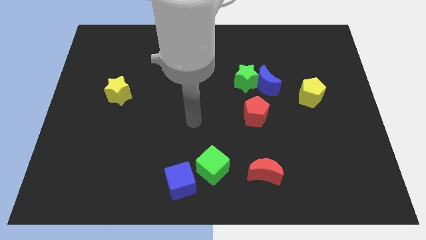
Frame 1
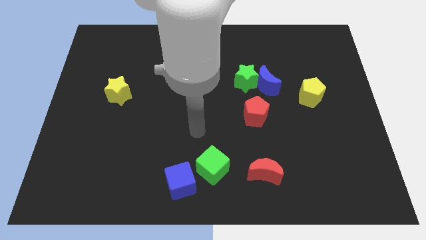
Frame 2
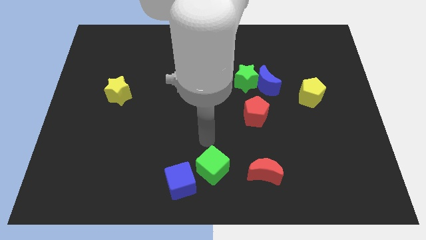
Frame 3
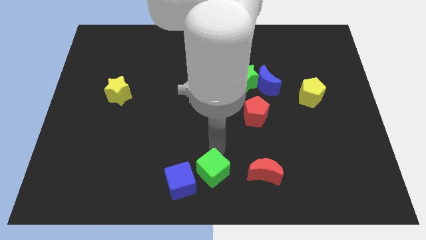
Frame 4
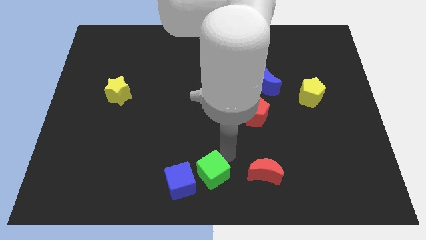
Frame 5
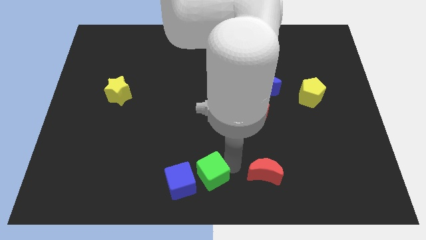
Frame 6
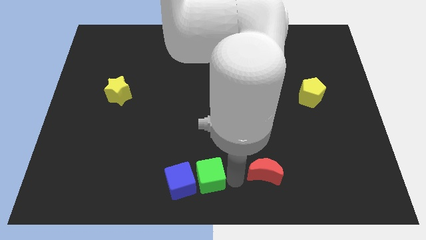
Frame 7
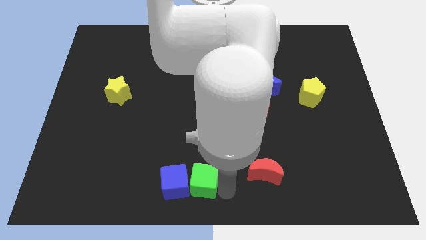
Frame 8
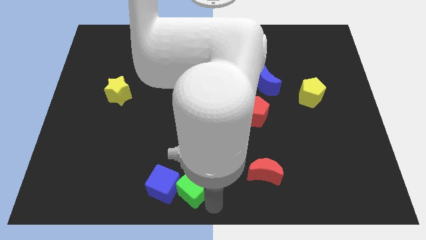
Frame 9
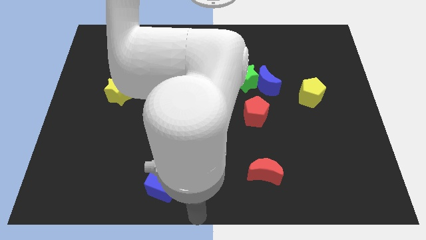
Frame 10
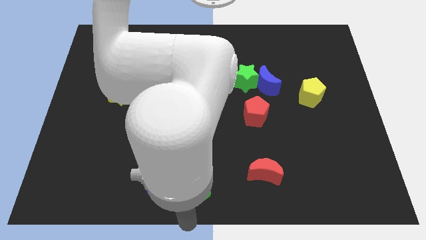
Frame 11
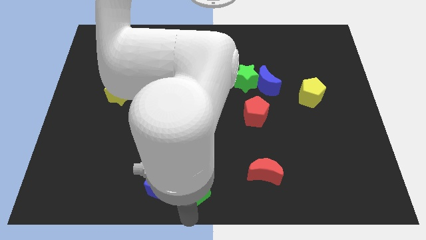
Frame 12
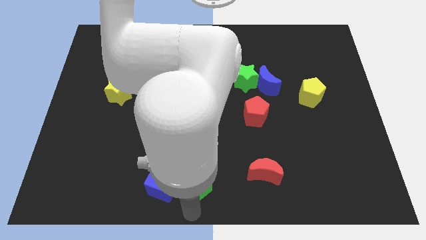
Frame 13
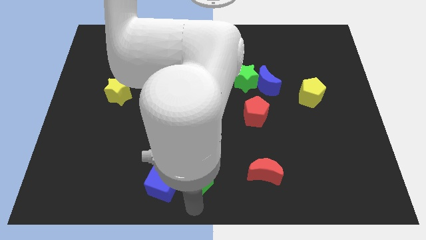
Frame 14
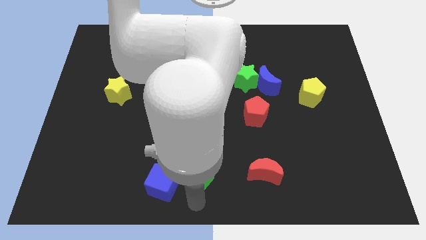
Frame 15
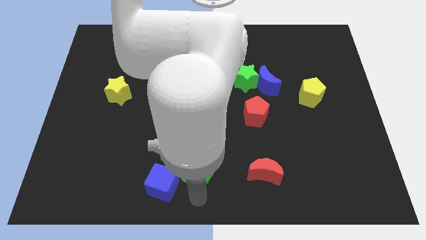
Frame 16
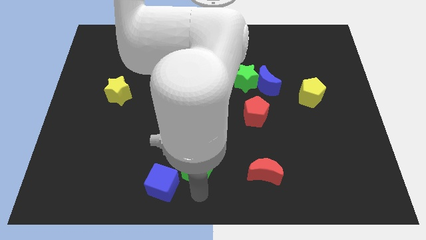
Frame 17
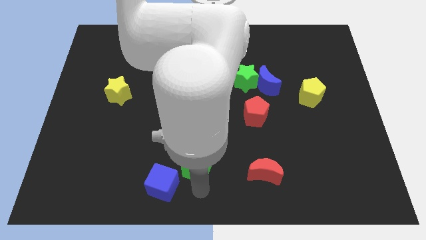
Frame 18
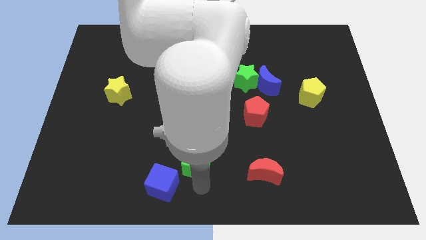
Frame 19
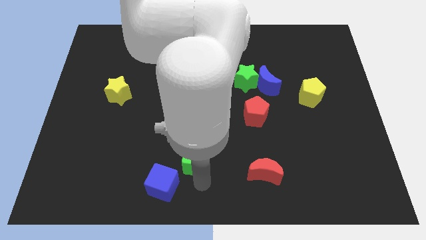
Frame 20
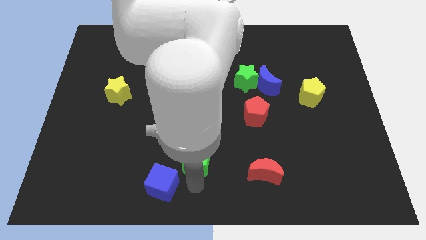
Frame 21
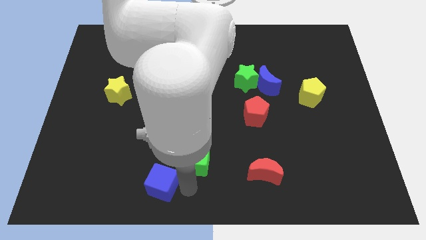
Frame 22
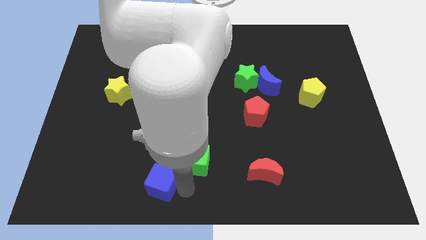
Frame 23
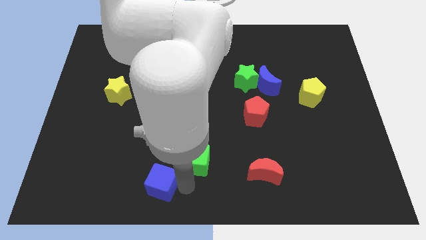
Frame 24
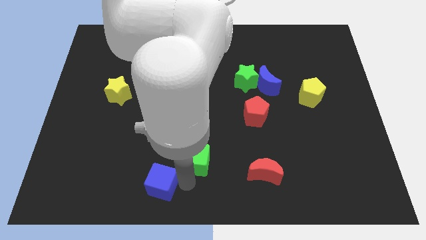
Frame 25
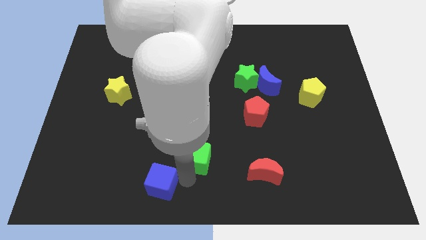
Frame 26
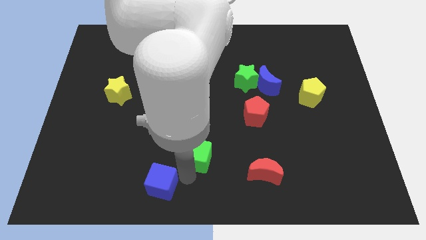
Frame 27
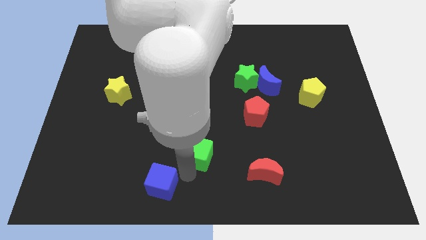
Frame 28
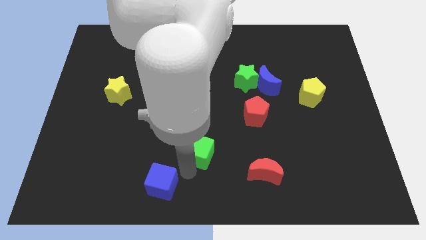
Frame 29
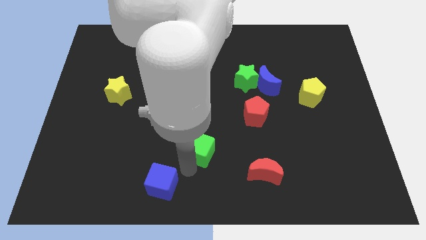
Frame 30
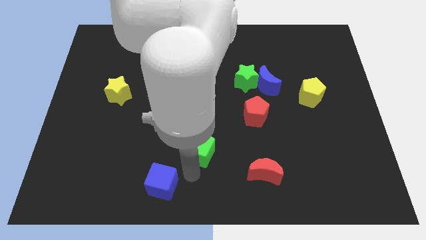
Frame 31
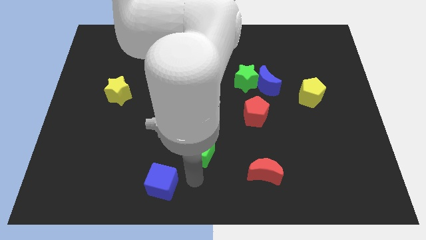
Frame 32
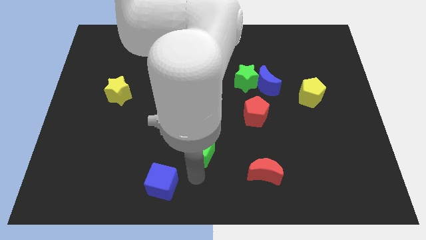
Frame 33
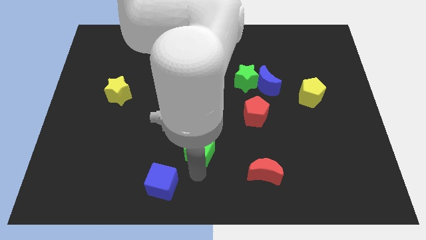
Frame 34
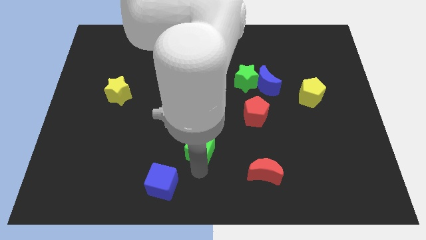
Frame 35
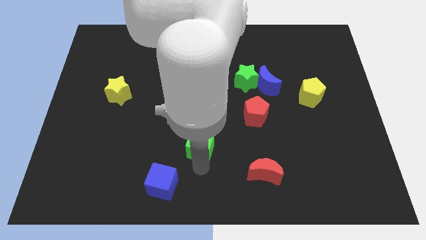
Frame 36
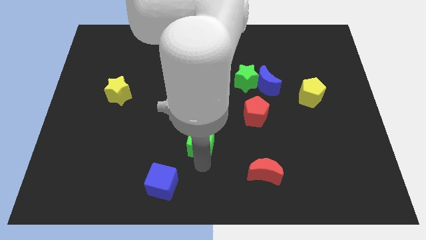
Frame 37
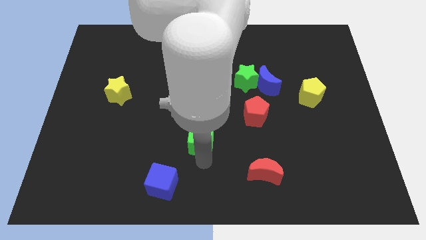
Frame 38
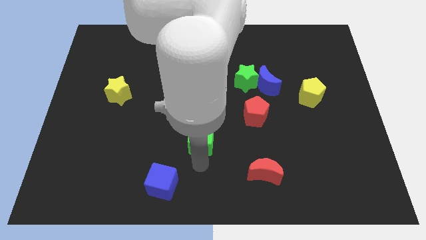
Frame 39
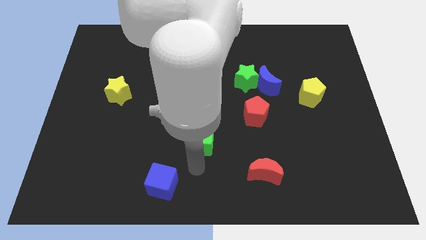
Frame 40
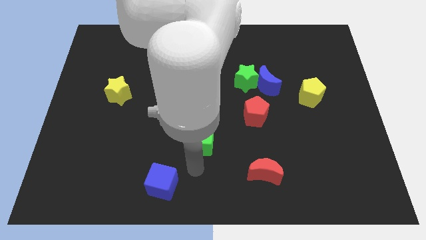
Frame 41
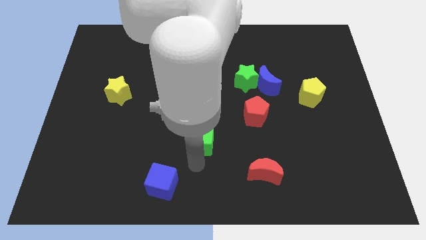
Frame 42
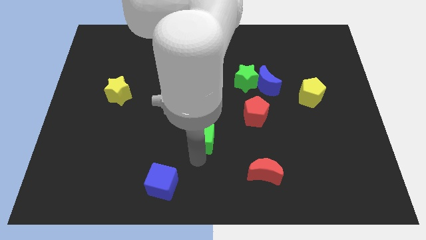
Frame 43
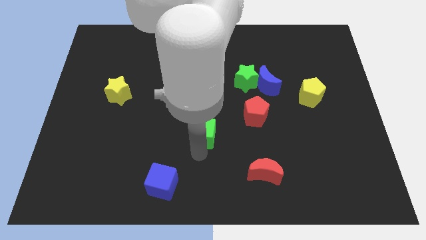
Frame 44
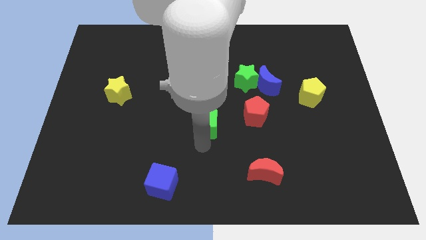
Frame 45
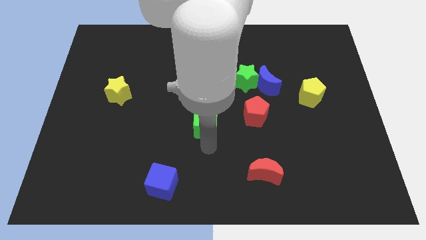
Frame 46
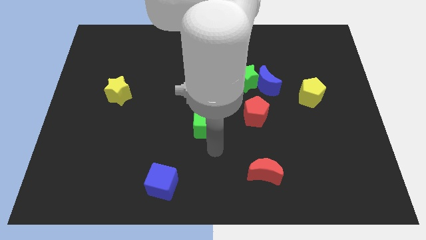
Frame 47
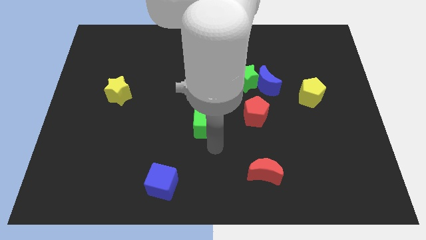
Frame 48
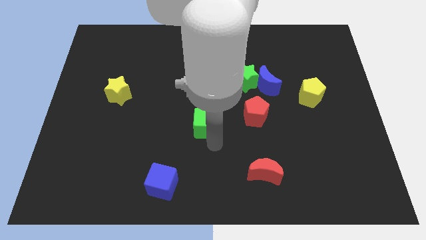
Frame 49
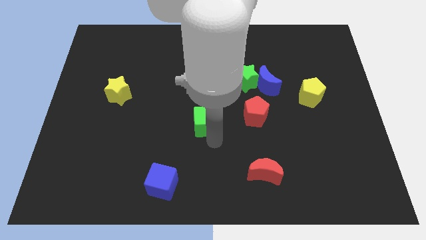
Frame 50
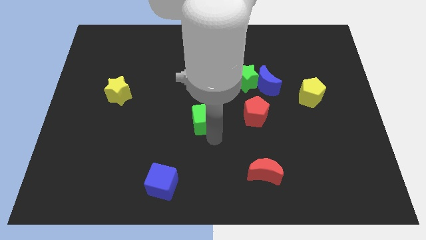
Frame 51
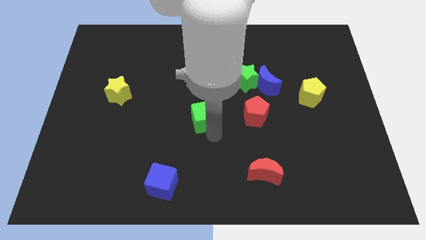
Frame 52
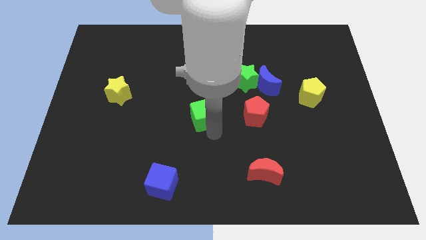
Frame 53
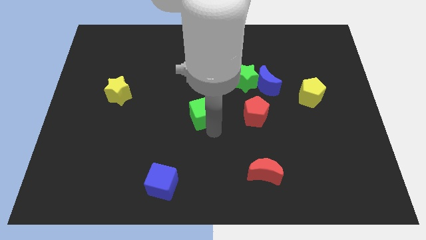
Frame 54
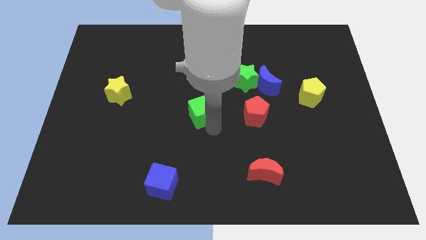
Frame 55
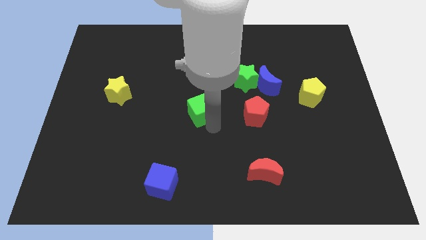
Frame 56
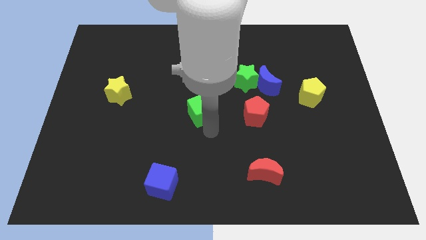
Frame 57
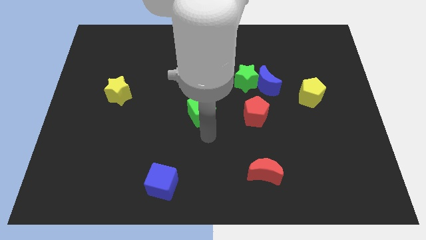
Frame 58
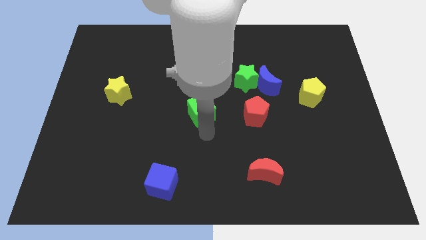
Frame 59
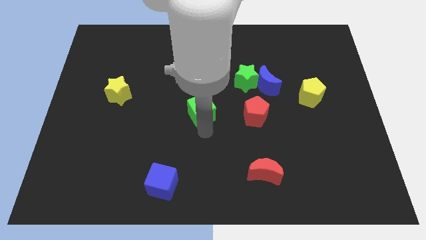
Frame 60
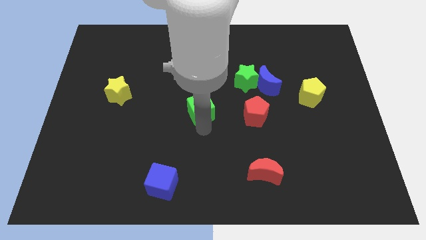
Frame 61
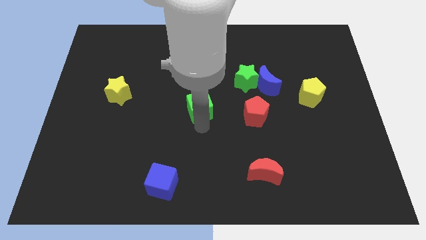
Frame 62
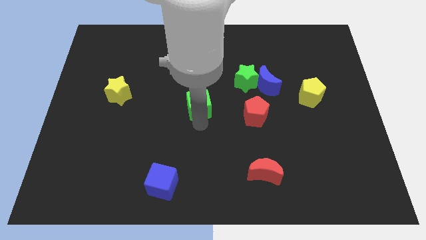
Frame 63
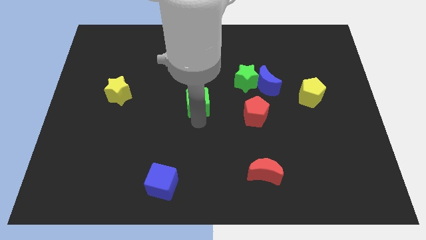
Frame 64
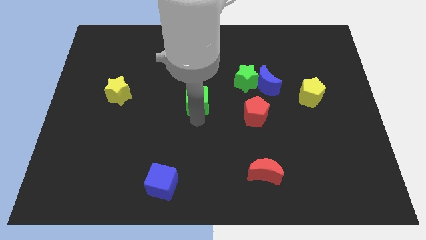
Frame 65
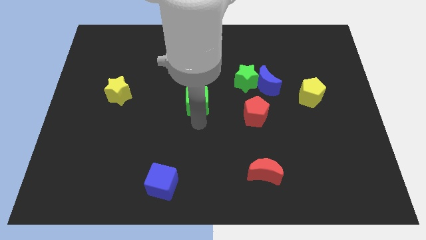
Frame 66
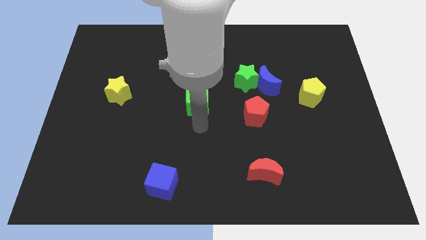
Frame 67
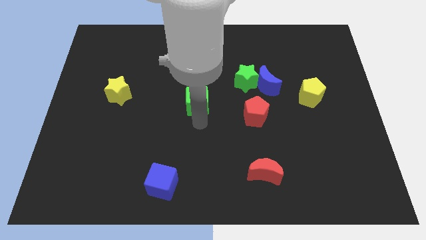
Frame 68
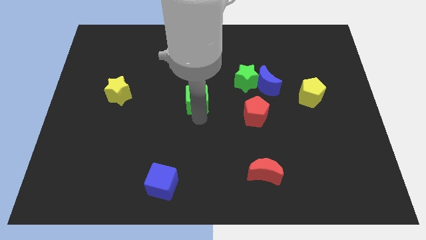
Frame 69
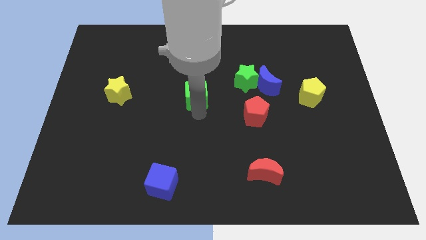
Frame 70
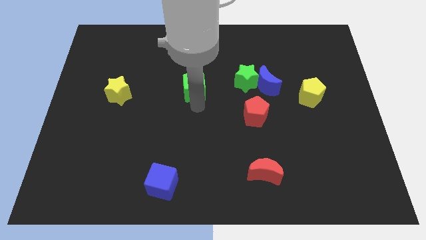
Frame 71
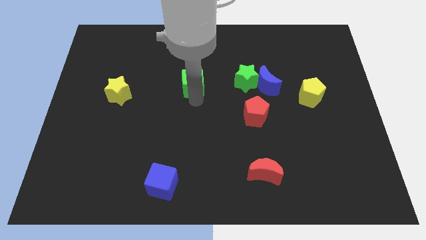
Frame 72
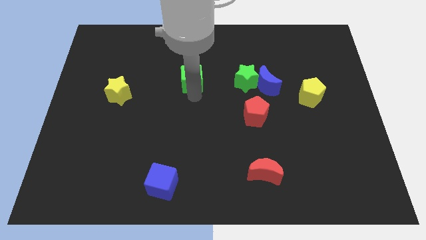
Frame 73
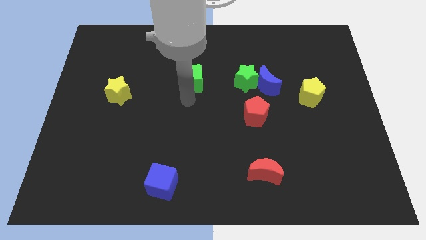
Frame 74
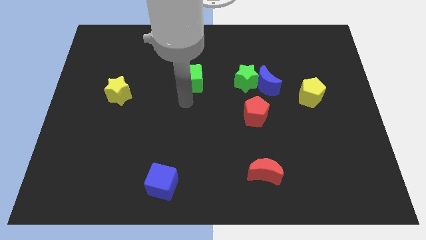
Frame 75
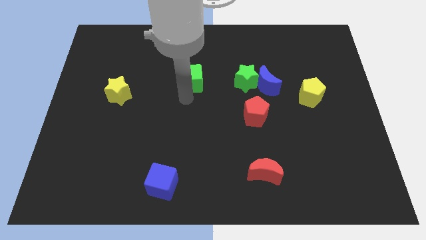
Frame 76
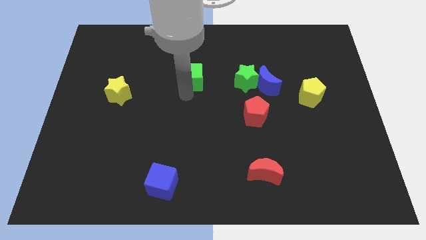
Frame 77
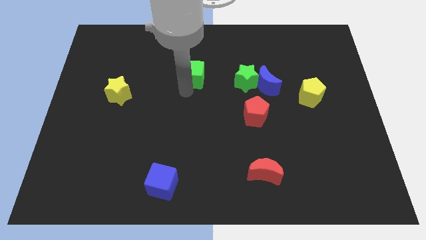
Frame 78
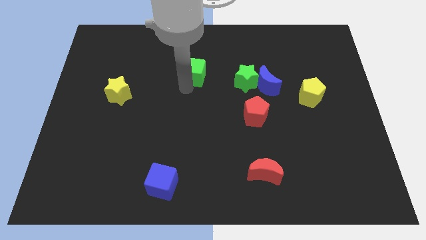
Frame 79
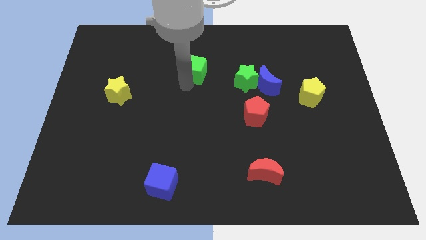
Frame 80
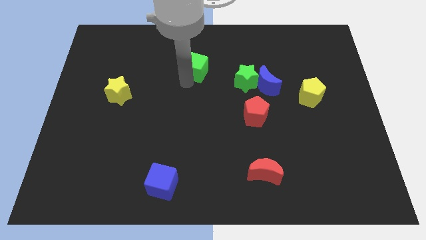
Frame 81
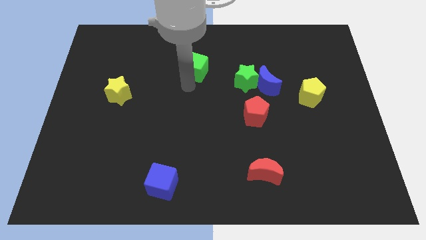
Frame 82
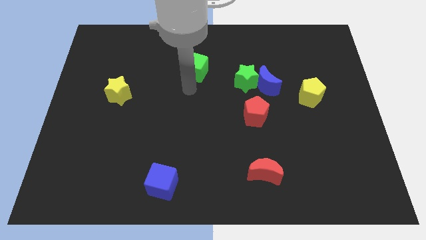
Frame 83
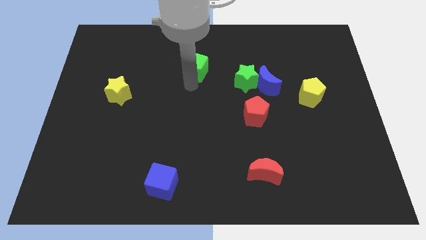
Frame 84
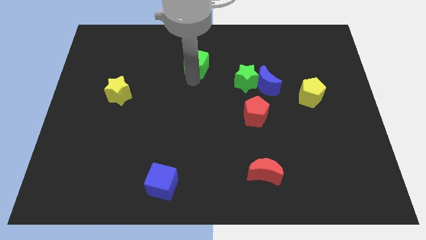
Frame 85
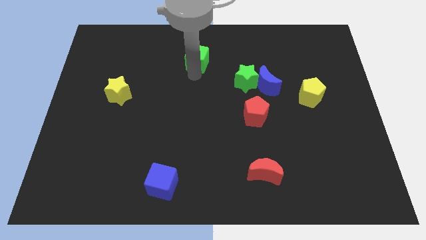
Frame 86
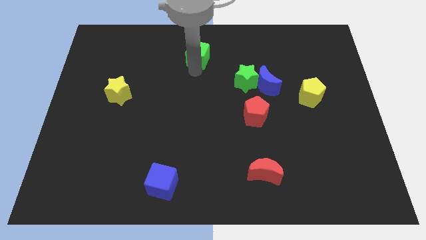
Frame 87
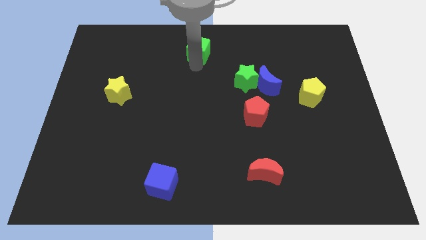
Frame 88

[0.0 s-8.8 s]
move the green cube to the top
